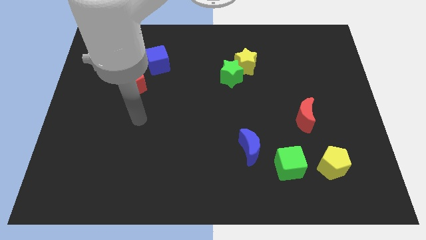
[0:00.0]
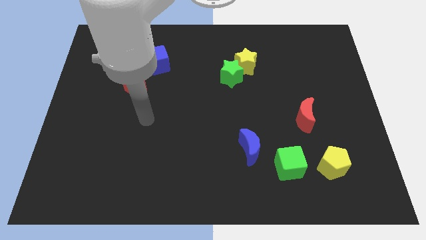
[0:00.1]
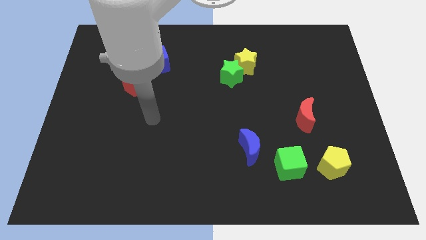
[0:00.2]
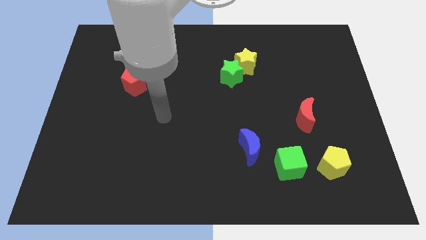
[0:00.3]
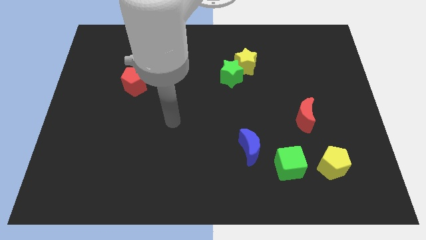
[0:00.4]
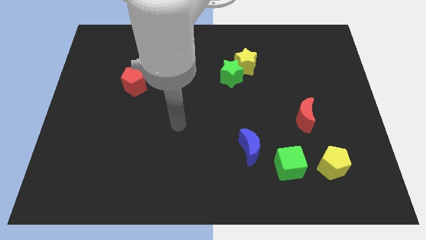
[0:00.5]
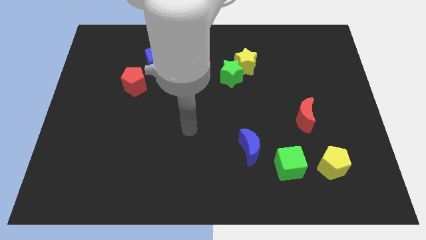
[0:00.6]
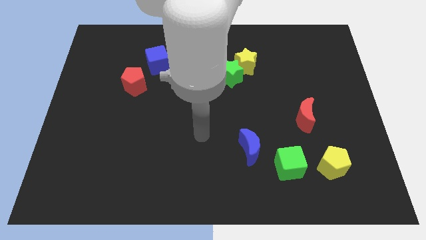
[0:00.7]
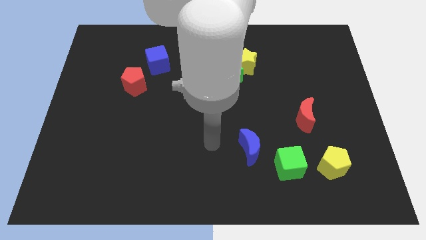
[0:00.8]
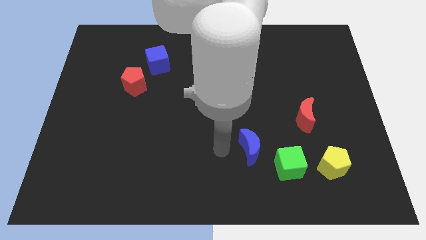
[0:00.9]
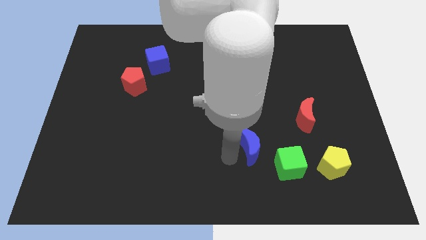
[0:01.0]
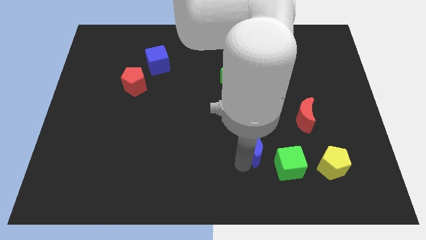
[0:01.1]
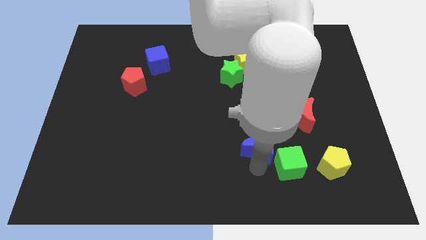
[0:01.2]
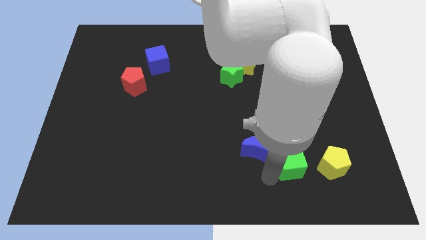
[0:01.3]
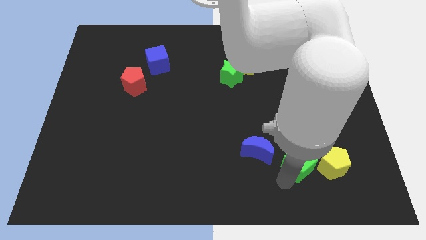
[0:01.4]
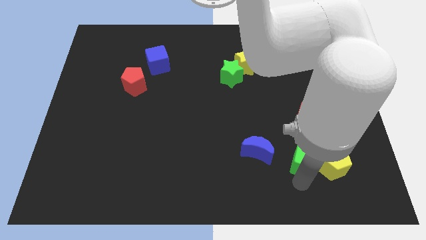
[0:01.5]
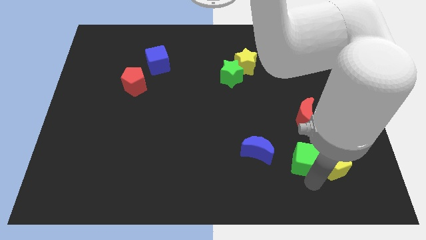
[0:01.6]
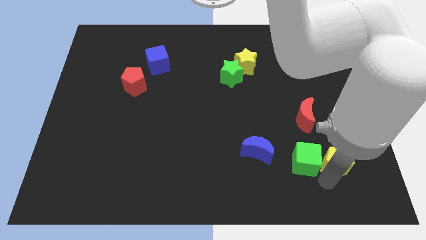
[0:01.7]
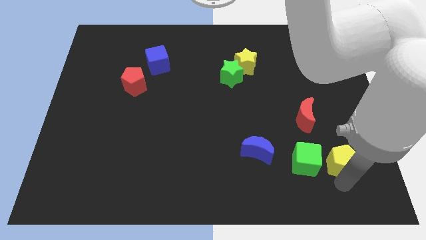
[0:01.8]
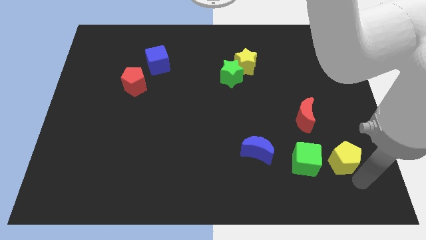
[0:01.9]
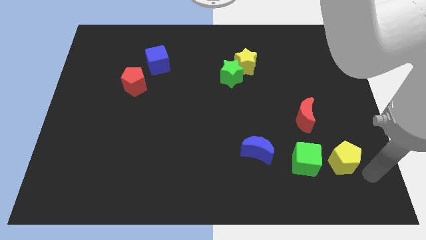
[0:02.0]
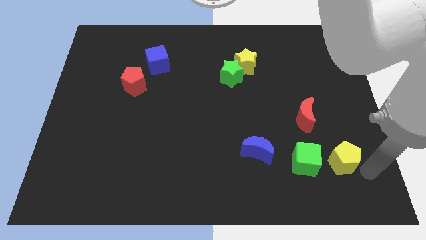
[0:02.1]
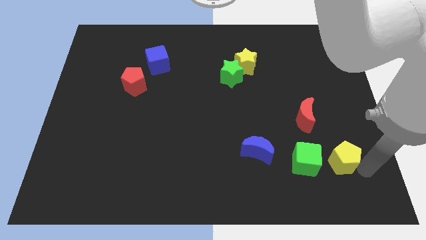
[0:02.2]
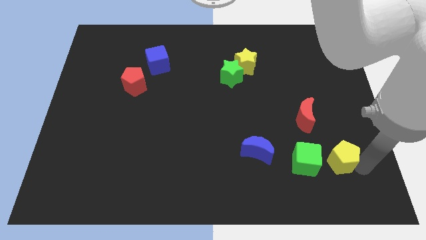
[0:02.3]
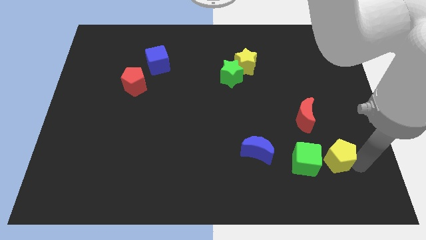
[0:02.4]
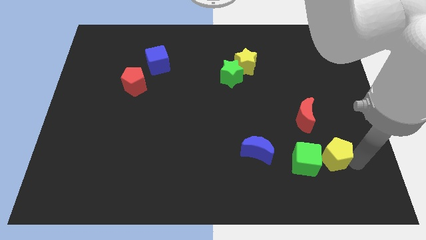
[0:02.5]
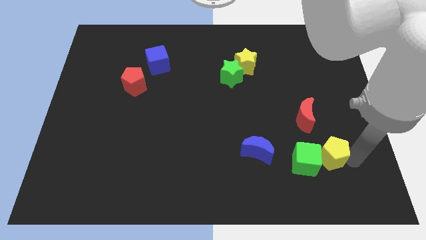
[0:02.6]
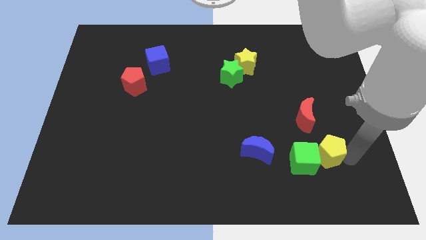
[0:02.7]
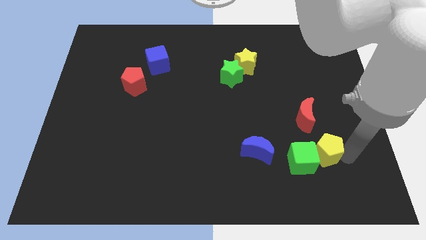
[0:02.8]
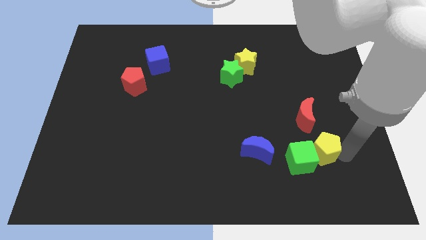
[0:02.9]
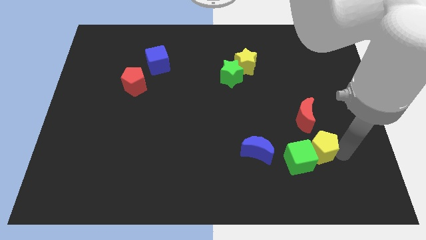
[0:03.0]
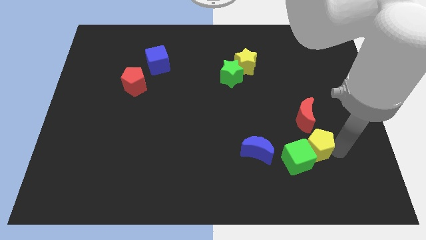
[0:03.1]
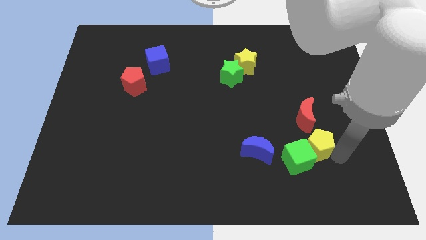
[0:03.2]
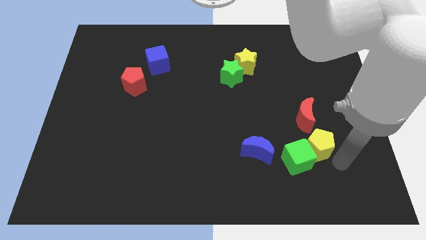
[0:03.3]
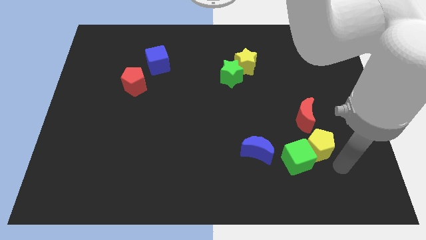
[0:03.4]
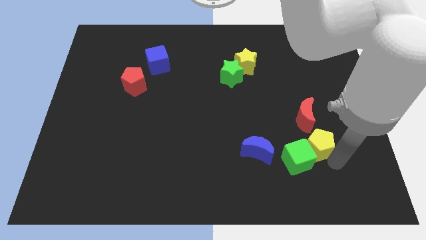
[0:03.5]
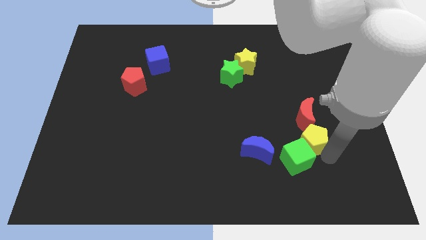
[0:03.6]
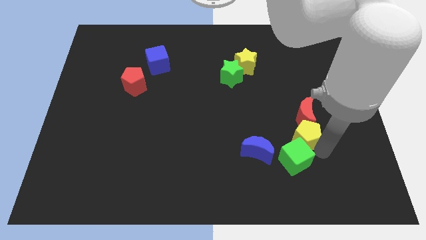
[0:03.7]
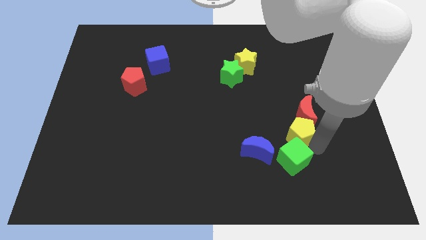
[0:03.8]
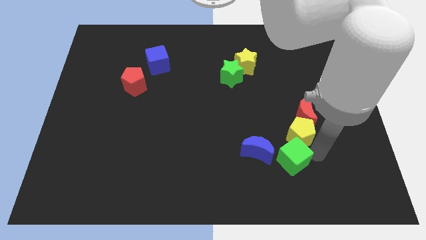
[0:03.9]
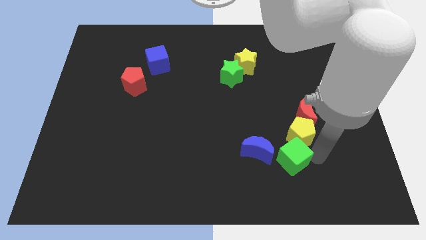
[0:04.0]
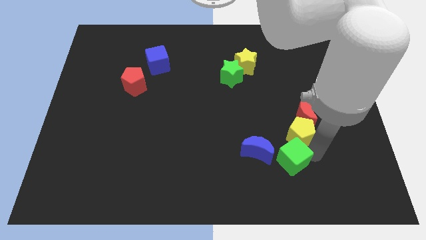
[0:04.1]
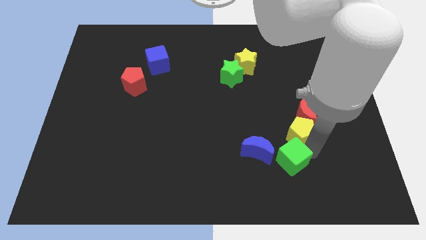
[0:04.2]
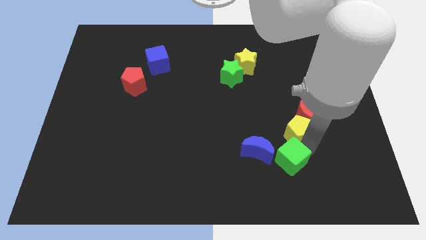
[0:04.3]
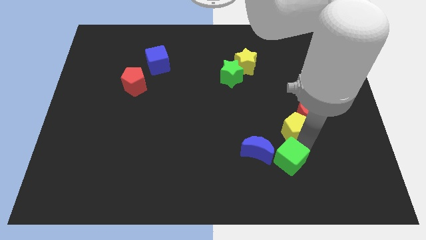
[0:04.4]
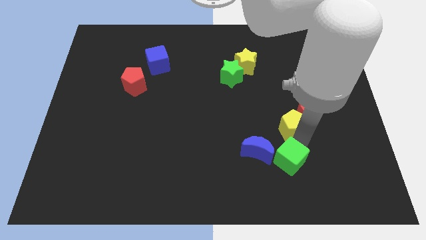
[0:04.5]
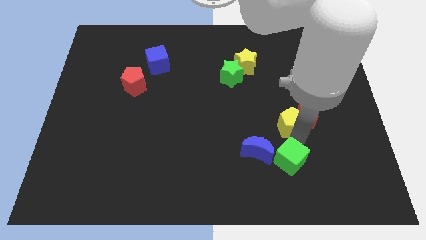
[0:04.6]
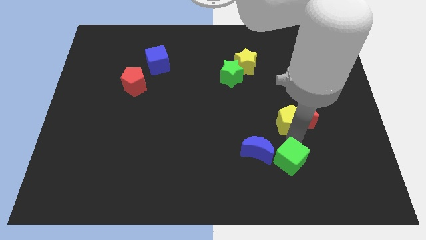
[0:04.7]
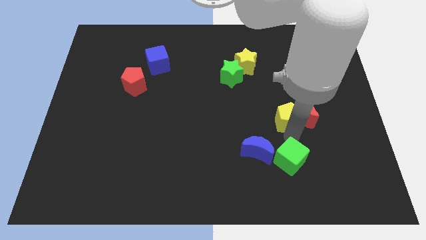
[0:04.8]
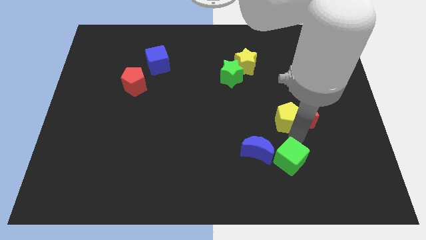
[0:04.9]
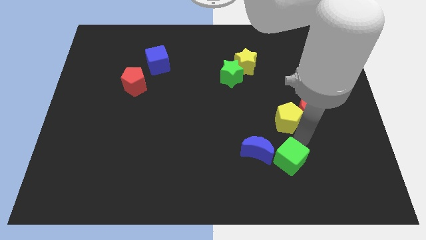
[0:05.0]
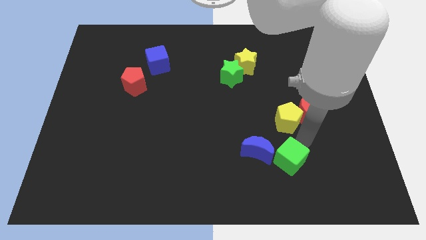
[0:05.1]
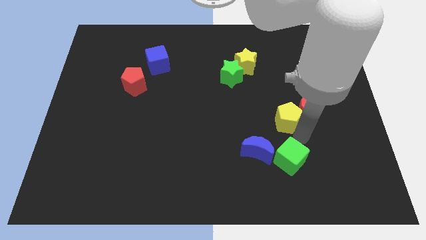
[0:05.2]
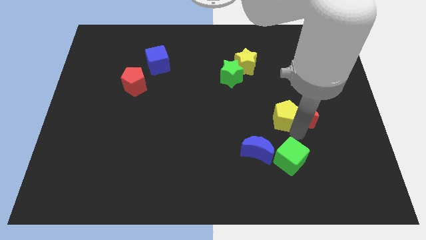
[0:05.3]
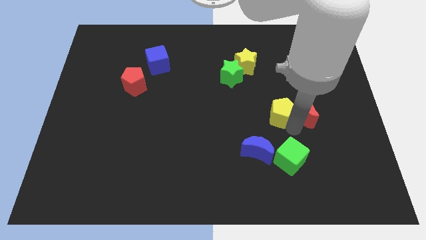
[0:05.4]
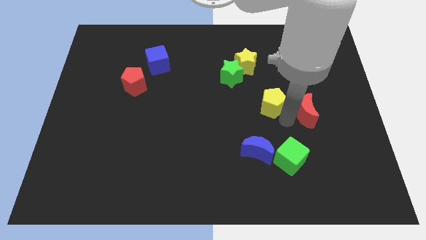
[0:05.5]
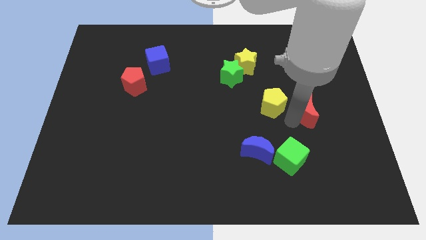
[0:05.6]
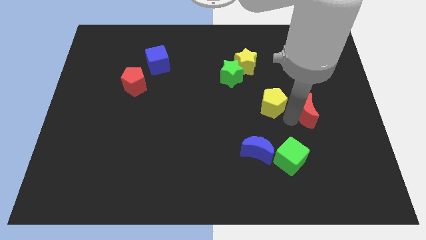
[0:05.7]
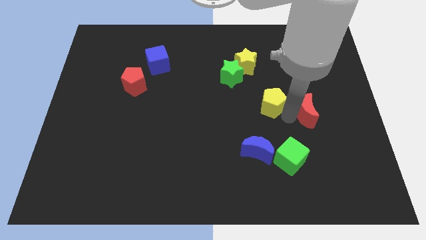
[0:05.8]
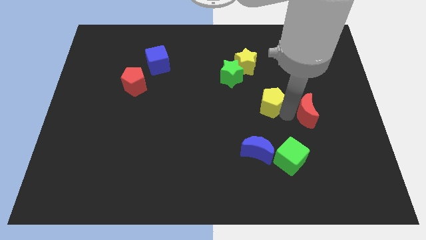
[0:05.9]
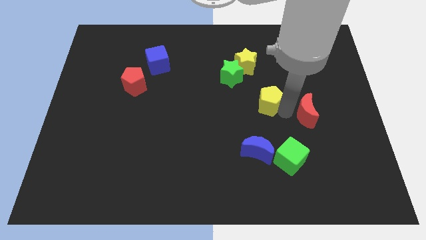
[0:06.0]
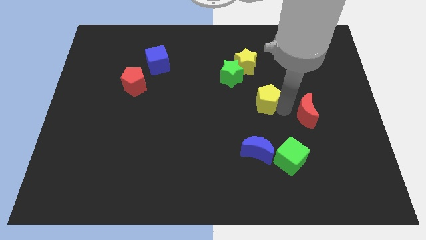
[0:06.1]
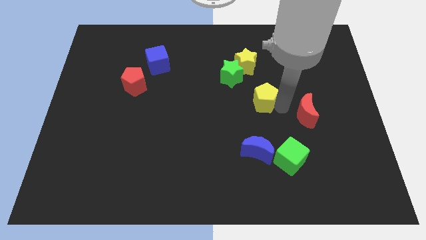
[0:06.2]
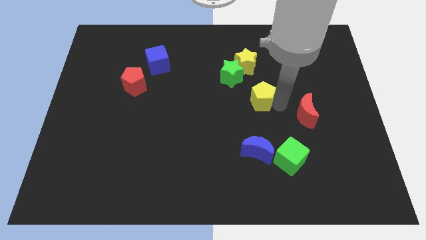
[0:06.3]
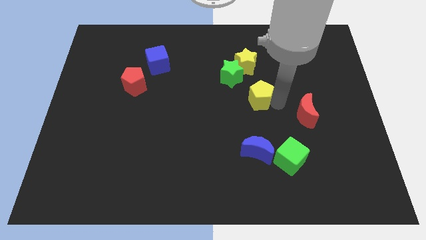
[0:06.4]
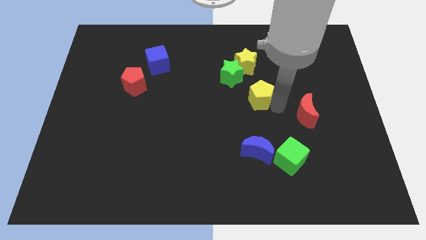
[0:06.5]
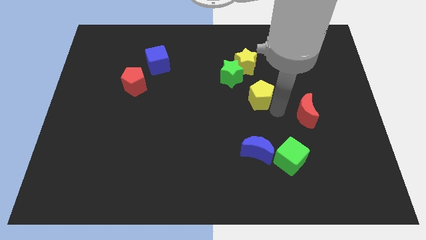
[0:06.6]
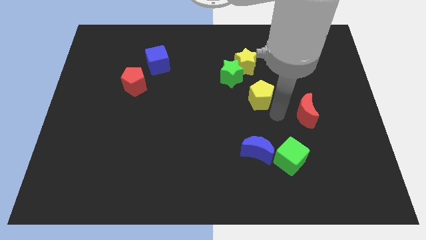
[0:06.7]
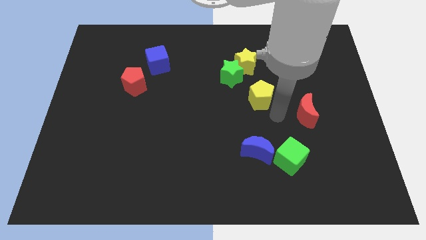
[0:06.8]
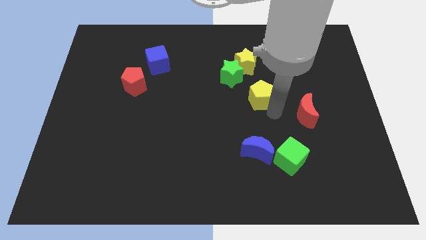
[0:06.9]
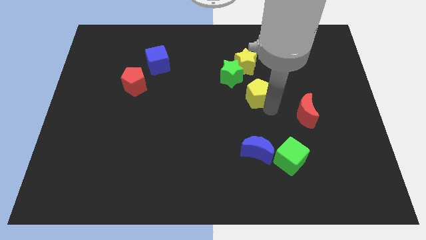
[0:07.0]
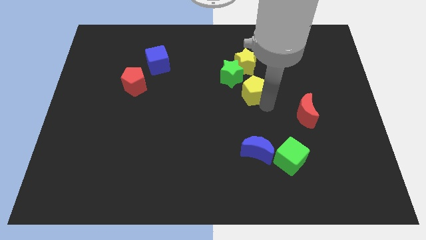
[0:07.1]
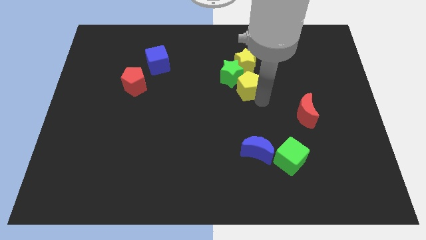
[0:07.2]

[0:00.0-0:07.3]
slide the yellow pentagon towards the green star
